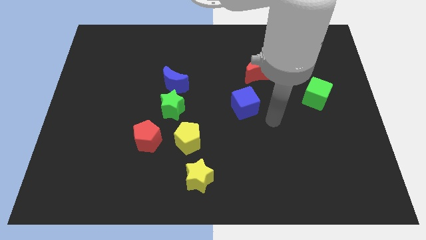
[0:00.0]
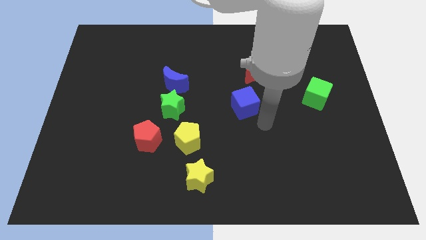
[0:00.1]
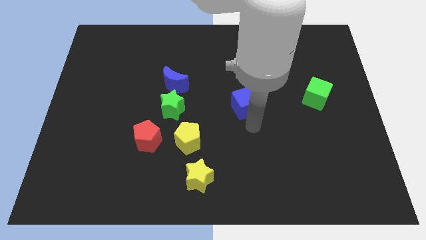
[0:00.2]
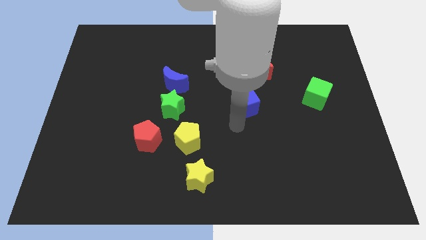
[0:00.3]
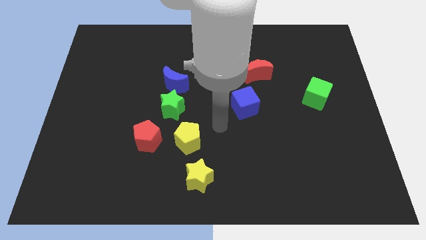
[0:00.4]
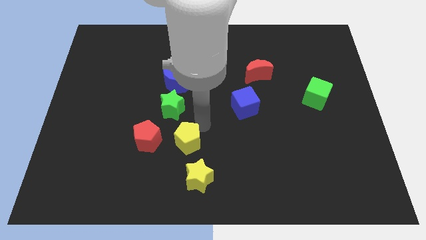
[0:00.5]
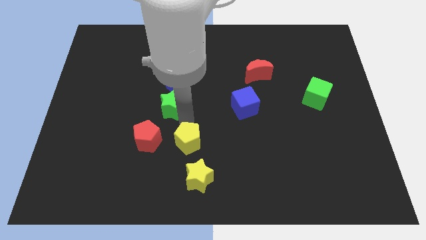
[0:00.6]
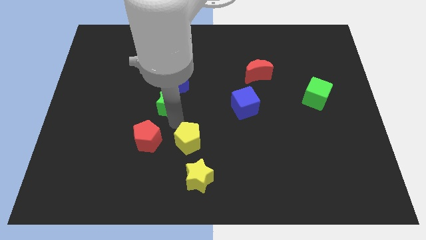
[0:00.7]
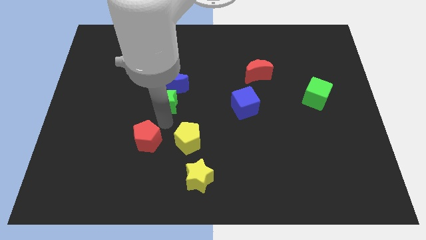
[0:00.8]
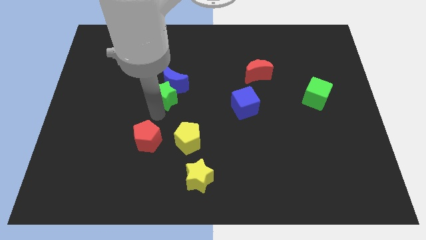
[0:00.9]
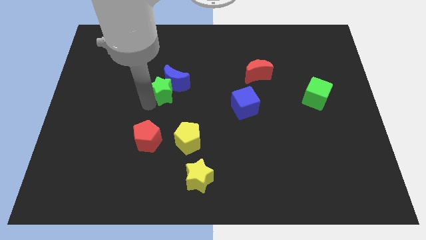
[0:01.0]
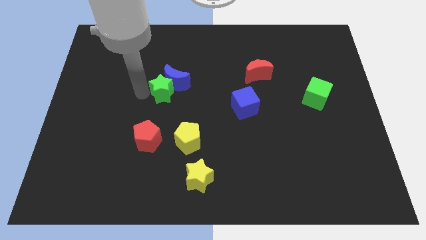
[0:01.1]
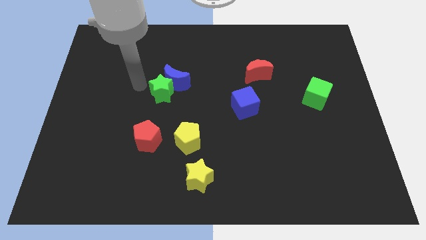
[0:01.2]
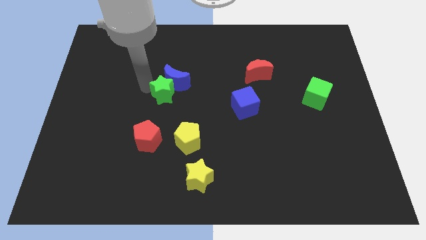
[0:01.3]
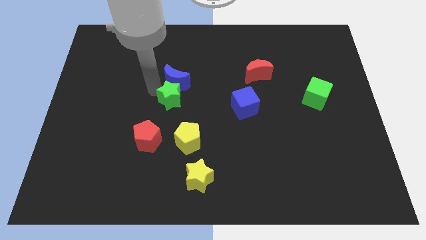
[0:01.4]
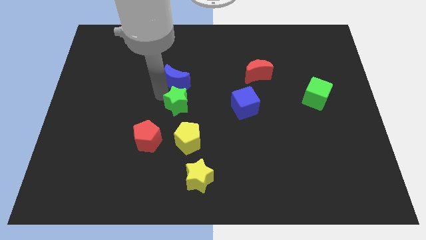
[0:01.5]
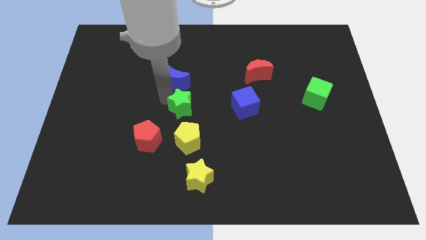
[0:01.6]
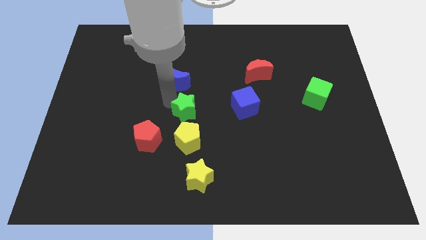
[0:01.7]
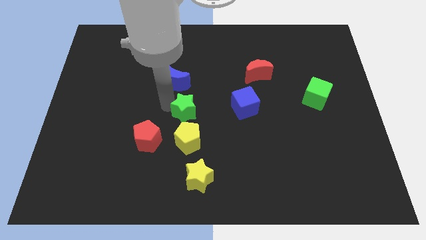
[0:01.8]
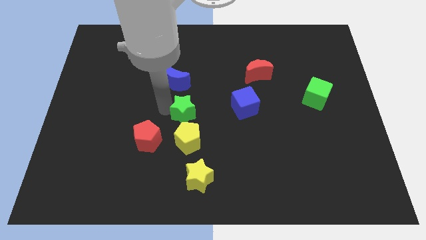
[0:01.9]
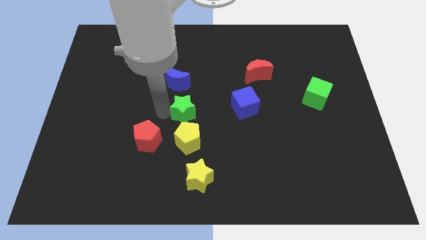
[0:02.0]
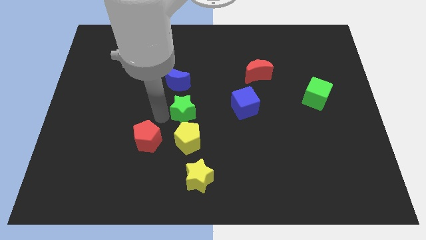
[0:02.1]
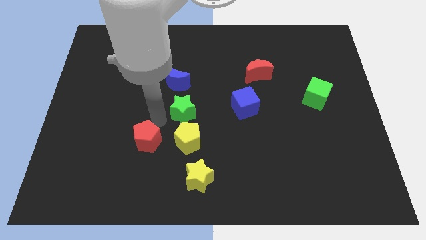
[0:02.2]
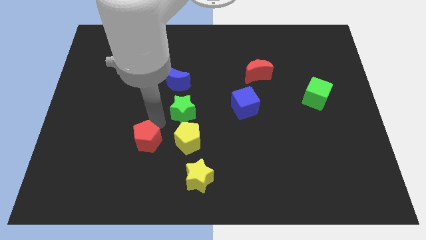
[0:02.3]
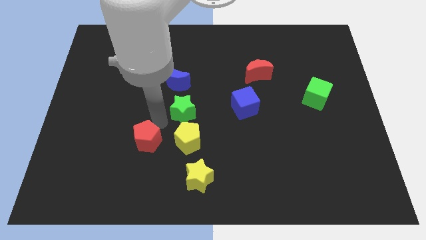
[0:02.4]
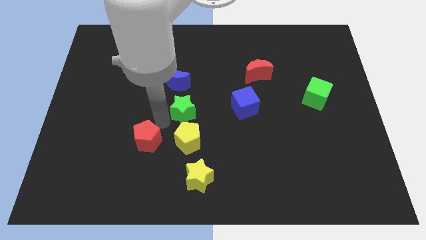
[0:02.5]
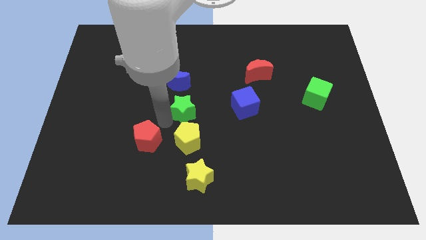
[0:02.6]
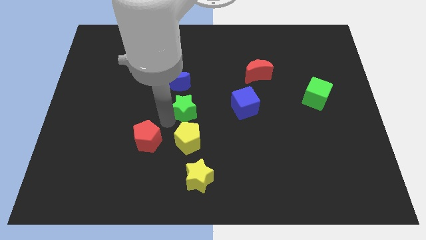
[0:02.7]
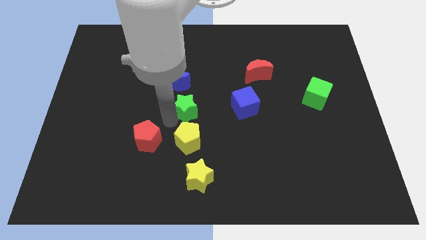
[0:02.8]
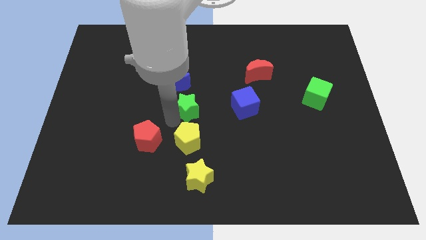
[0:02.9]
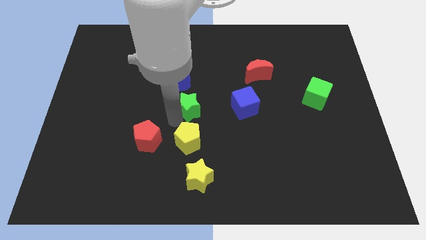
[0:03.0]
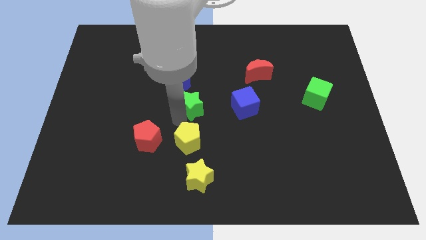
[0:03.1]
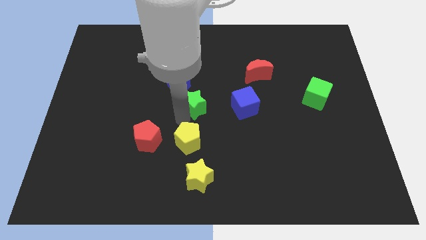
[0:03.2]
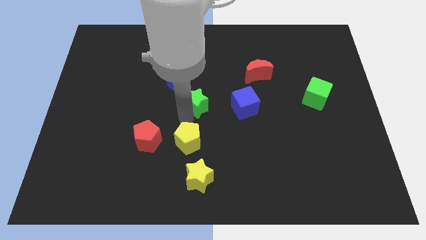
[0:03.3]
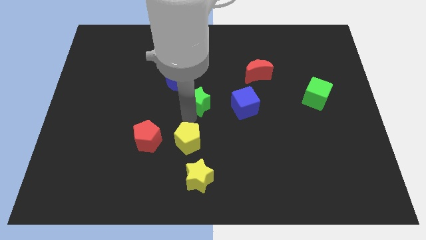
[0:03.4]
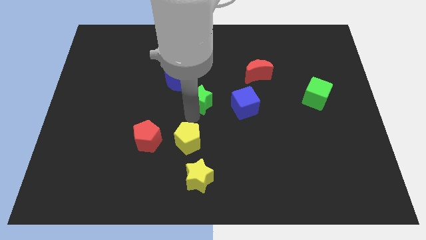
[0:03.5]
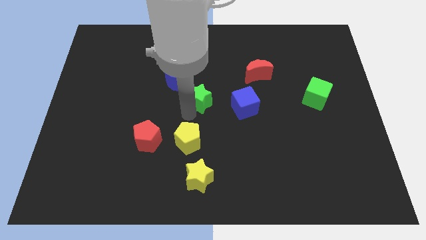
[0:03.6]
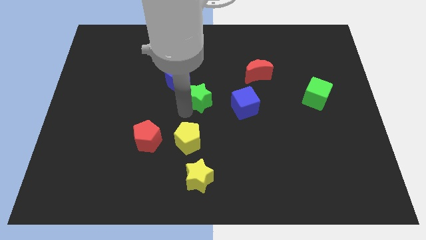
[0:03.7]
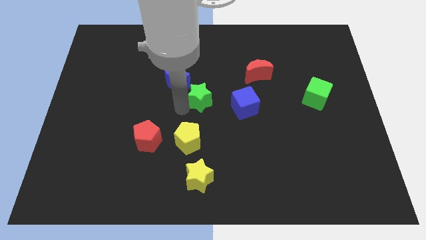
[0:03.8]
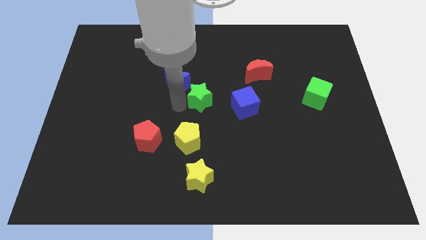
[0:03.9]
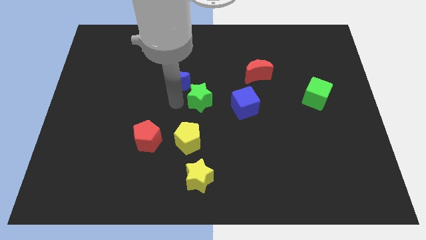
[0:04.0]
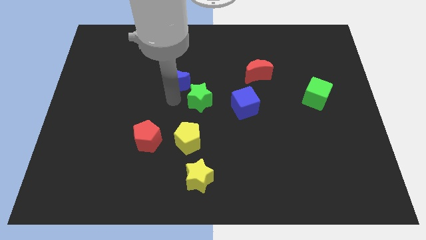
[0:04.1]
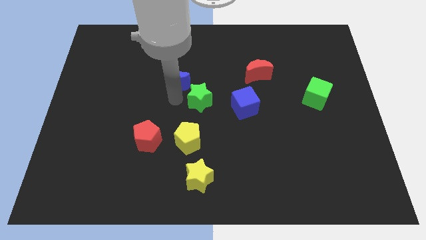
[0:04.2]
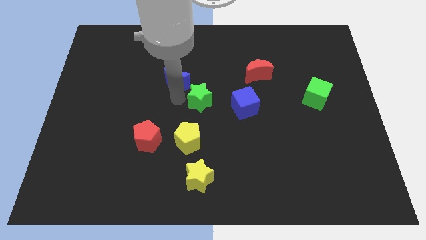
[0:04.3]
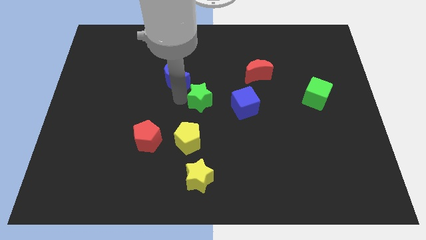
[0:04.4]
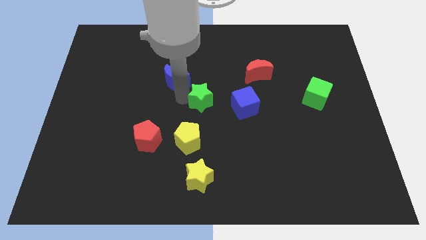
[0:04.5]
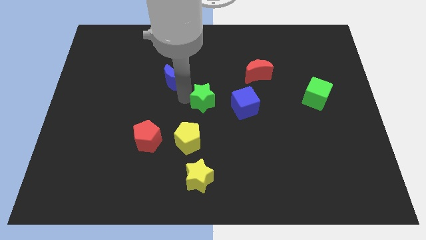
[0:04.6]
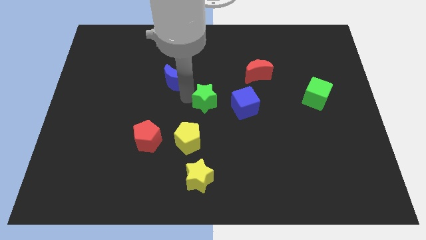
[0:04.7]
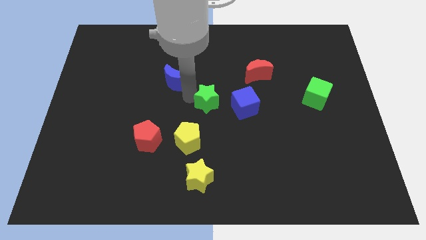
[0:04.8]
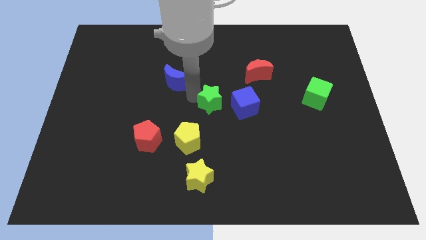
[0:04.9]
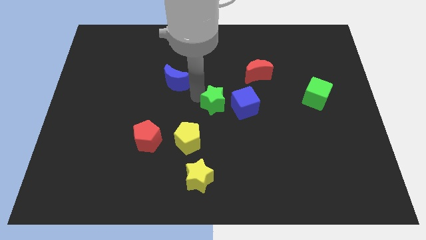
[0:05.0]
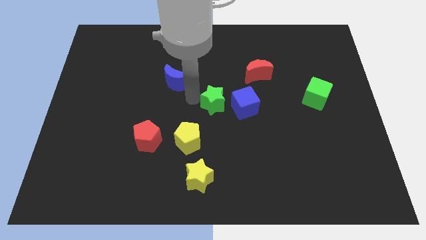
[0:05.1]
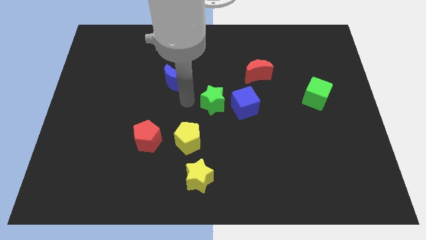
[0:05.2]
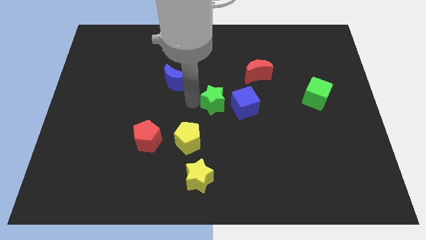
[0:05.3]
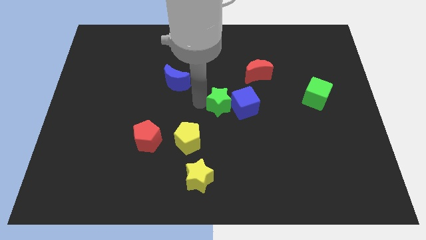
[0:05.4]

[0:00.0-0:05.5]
slide the green star to the blue cube

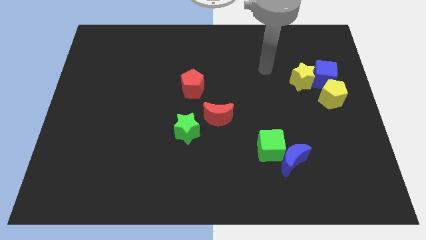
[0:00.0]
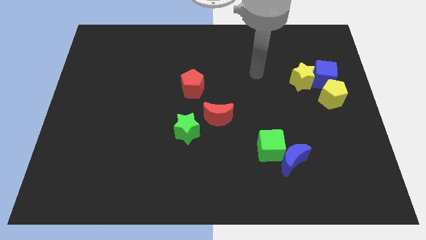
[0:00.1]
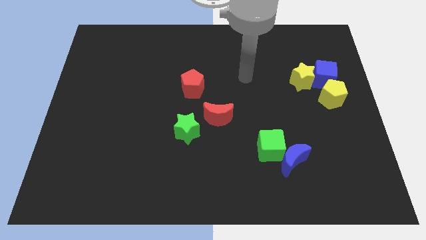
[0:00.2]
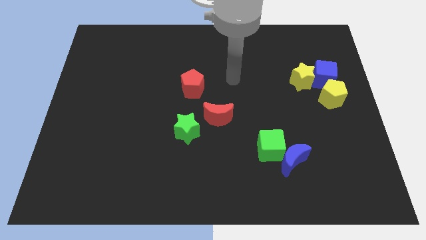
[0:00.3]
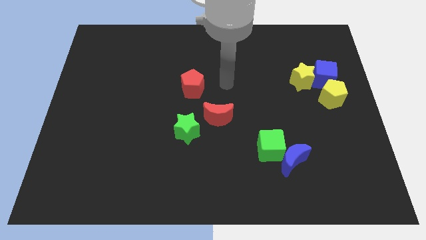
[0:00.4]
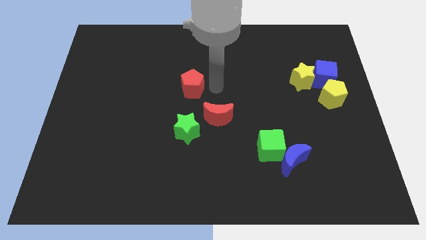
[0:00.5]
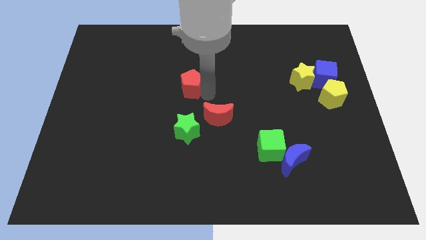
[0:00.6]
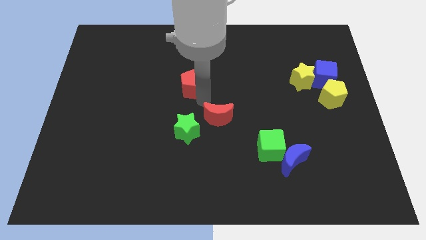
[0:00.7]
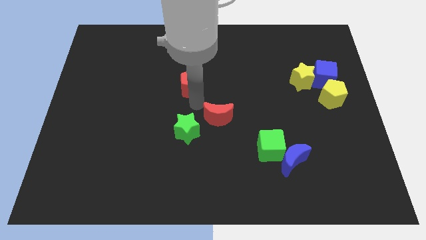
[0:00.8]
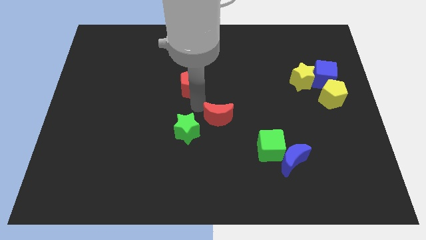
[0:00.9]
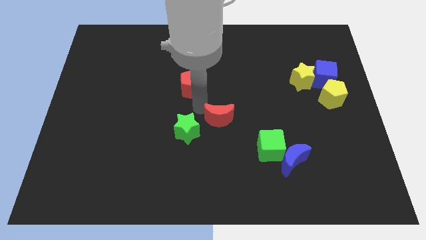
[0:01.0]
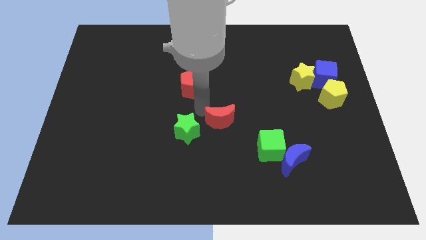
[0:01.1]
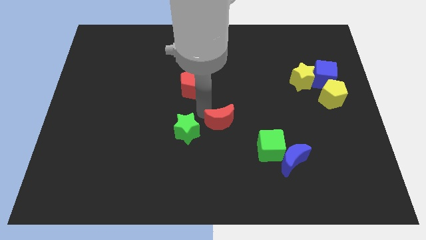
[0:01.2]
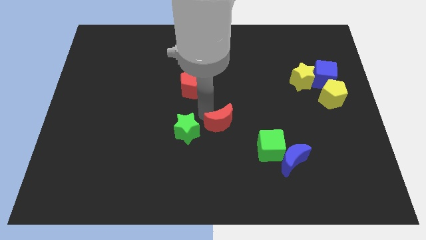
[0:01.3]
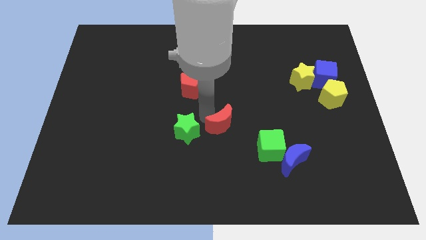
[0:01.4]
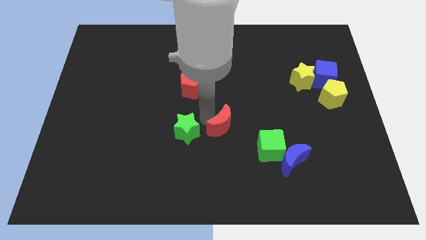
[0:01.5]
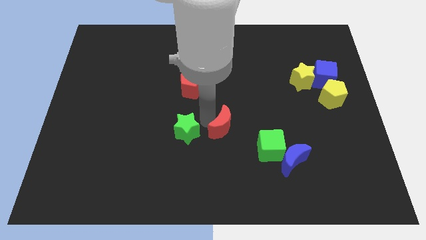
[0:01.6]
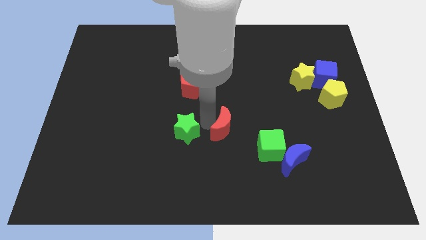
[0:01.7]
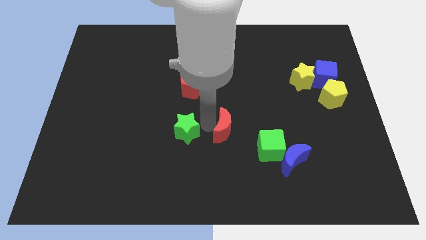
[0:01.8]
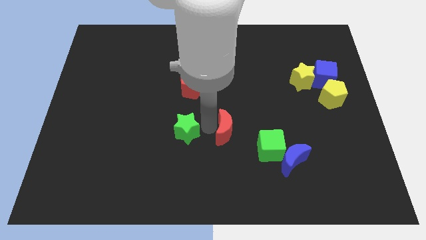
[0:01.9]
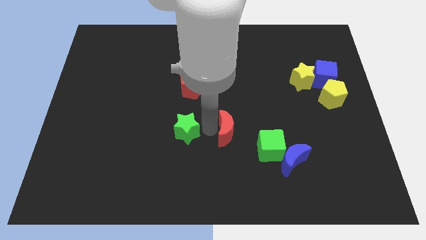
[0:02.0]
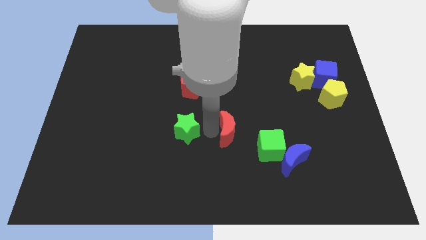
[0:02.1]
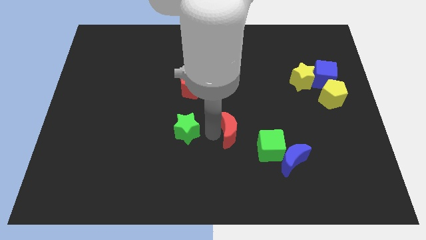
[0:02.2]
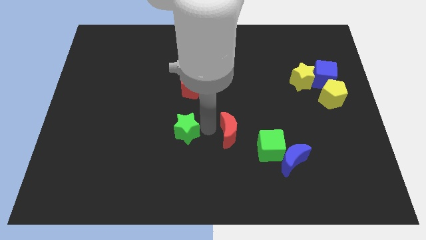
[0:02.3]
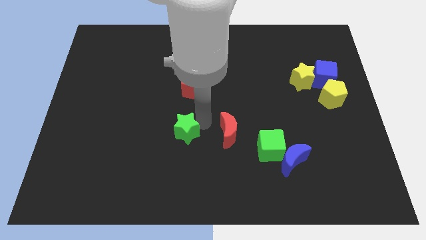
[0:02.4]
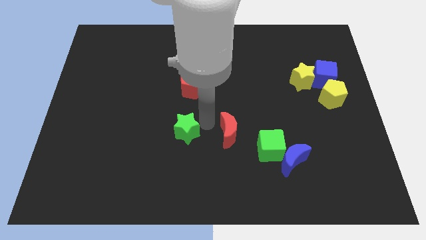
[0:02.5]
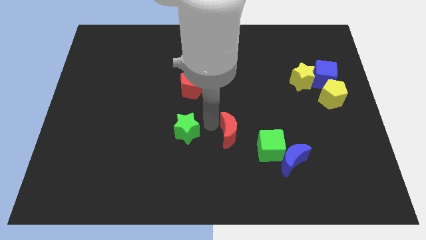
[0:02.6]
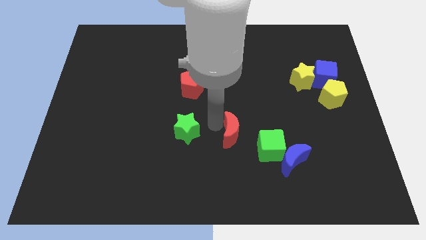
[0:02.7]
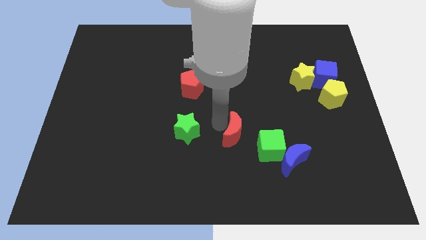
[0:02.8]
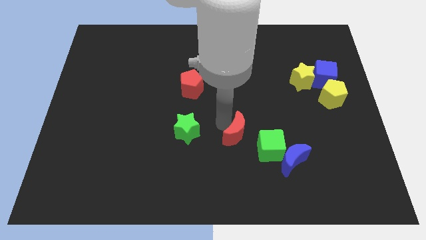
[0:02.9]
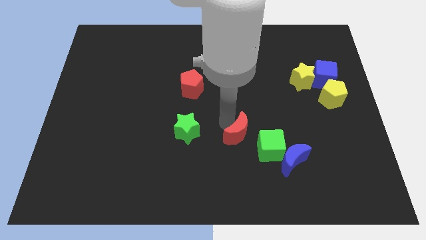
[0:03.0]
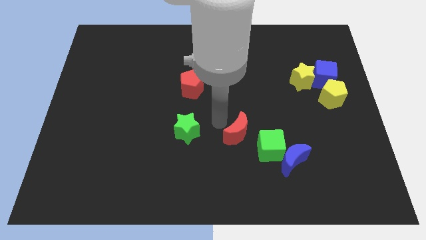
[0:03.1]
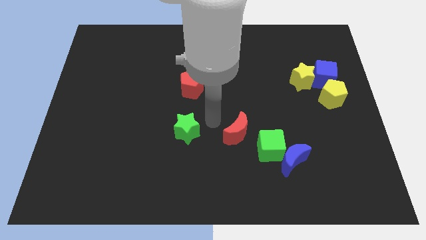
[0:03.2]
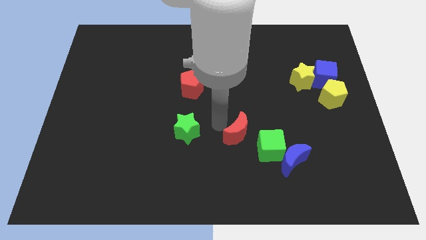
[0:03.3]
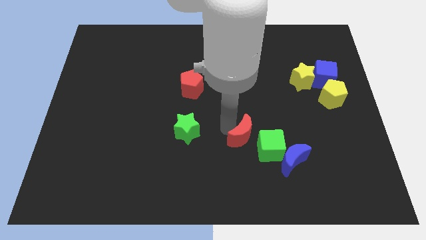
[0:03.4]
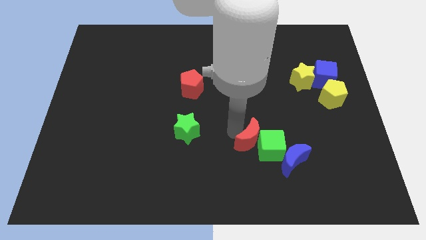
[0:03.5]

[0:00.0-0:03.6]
move the red moon close to the green cube
